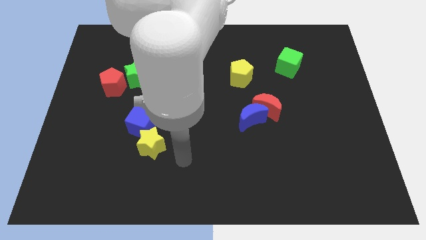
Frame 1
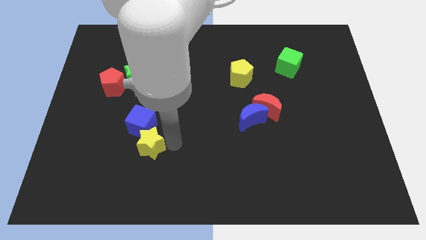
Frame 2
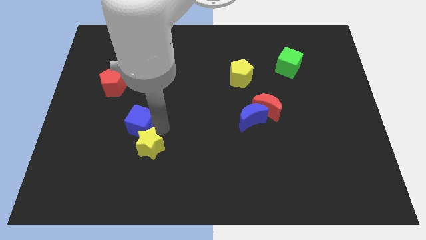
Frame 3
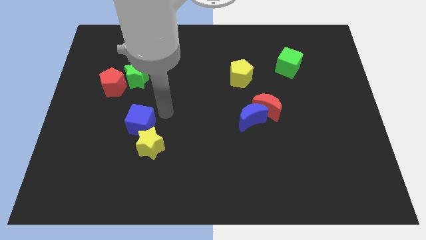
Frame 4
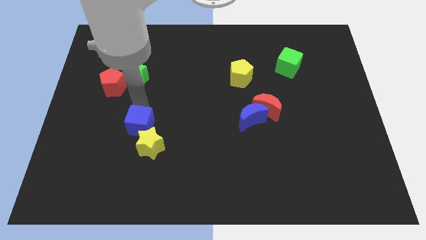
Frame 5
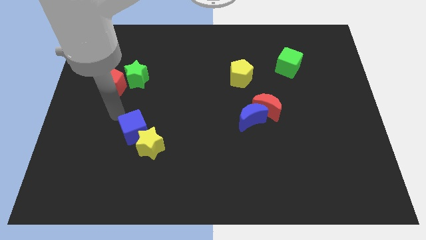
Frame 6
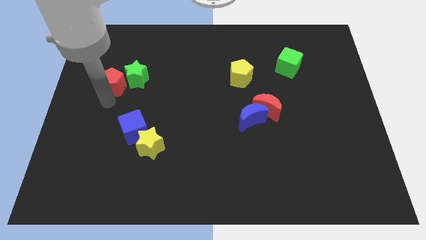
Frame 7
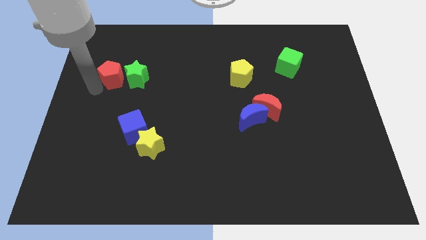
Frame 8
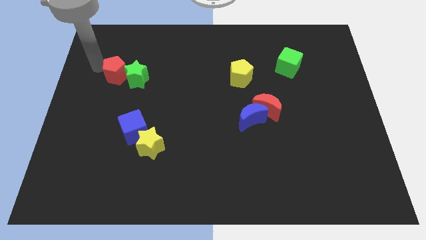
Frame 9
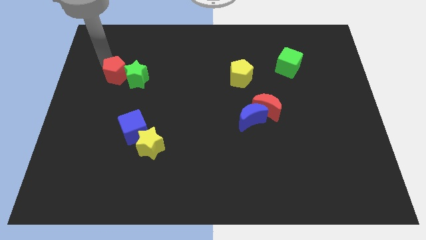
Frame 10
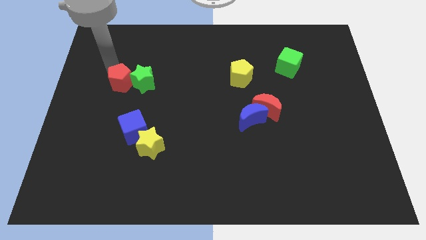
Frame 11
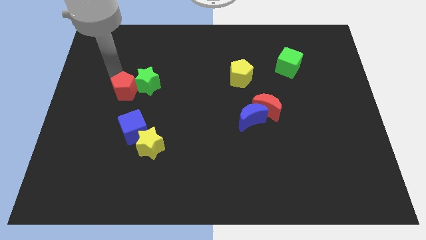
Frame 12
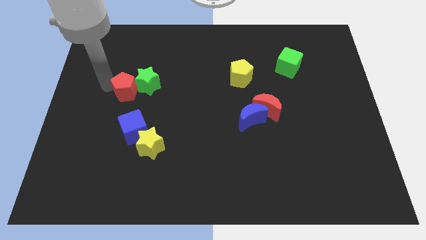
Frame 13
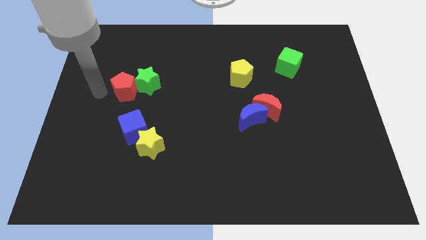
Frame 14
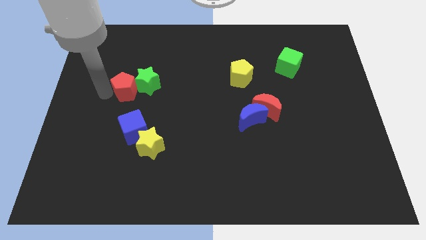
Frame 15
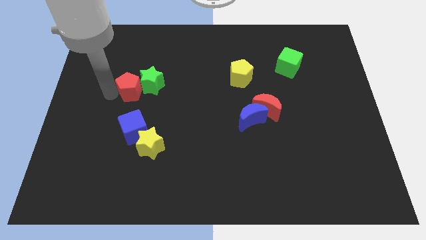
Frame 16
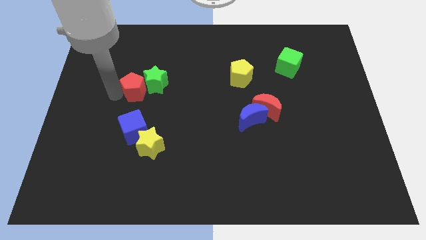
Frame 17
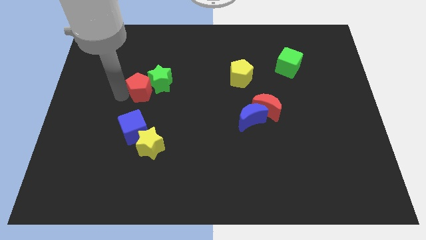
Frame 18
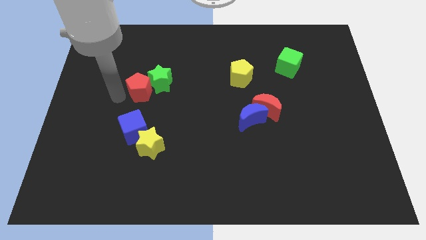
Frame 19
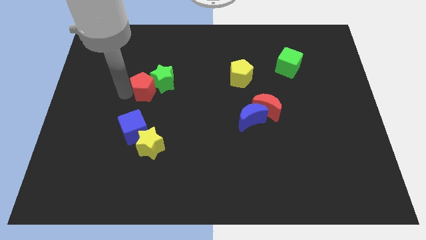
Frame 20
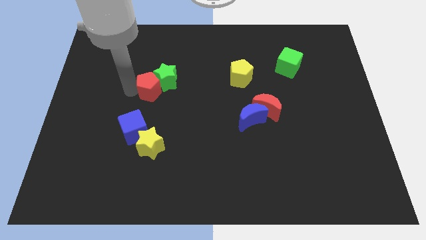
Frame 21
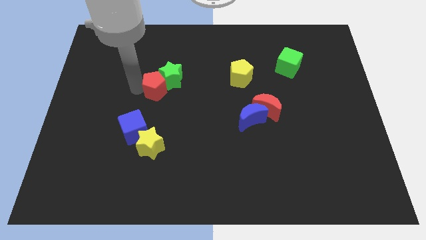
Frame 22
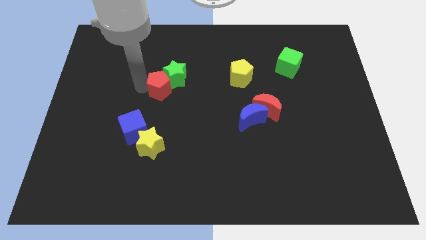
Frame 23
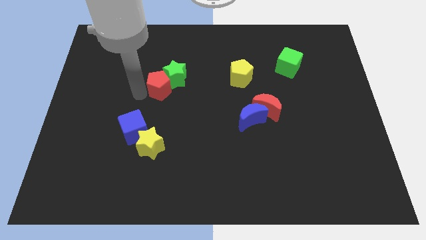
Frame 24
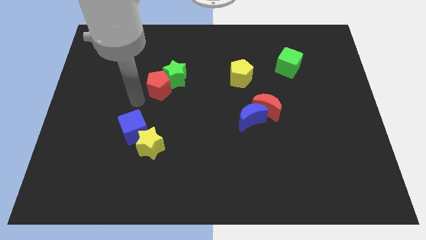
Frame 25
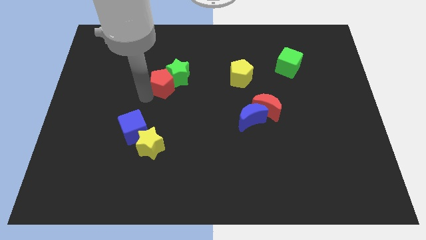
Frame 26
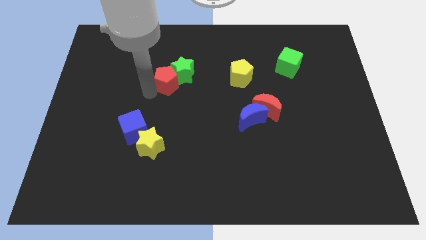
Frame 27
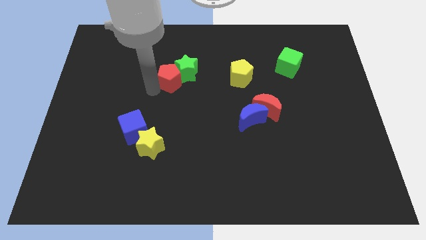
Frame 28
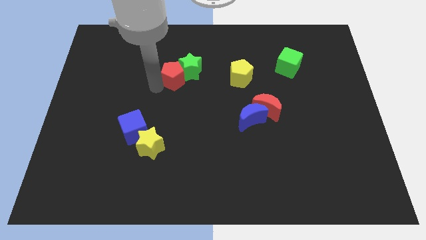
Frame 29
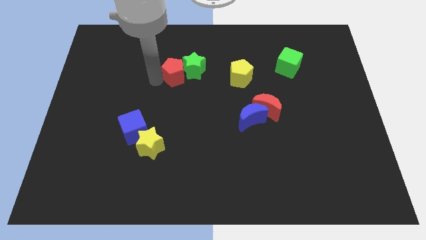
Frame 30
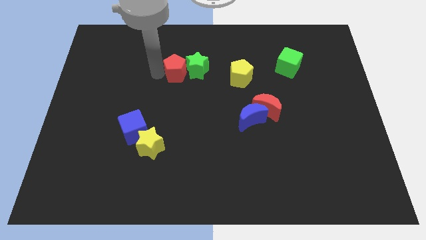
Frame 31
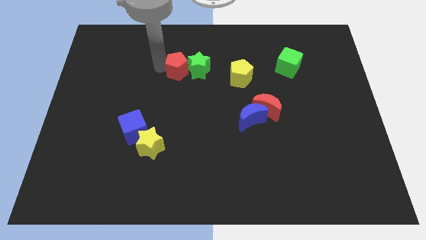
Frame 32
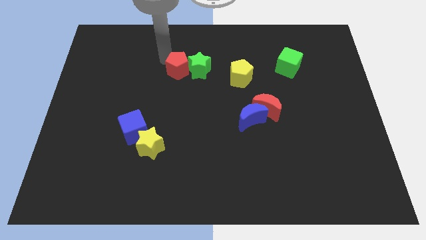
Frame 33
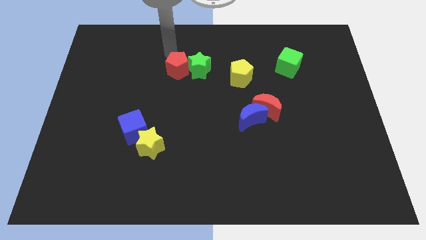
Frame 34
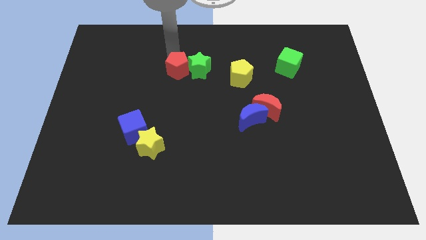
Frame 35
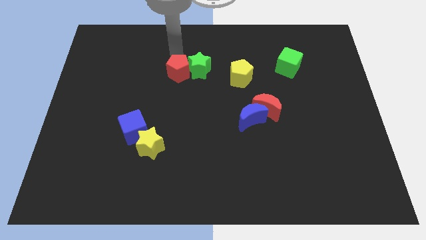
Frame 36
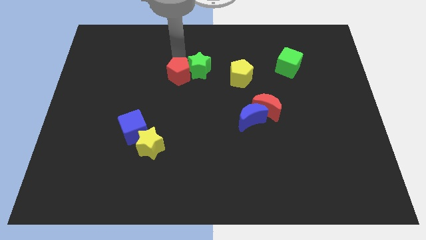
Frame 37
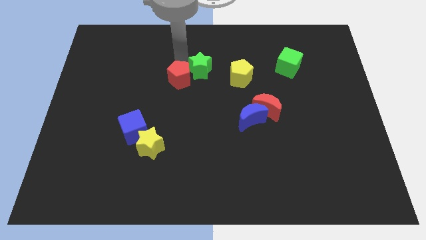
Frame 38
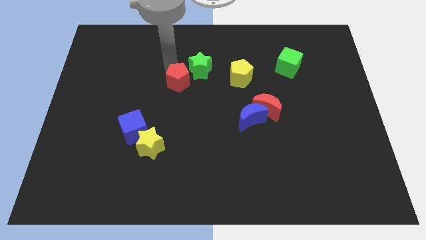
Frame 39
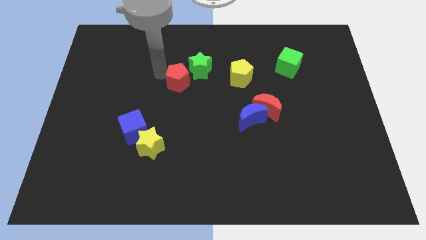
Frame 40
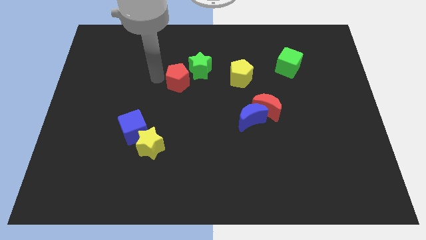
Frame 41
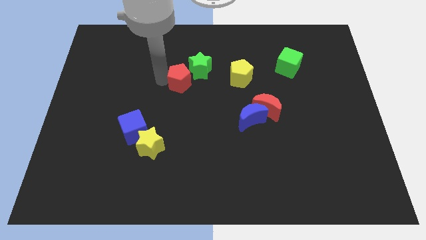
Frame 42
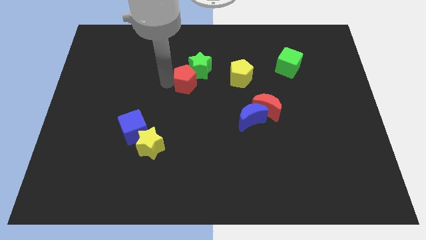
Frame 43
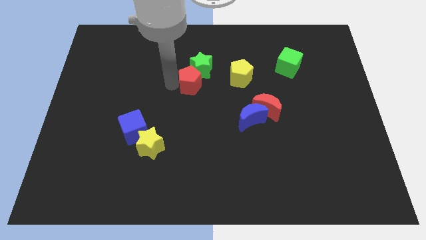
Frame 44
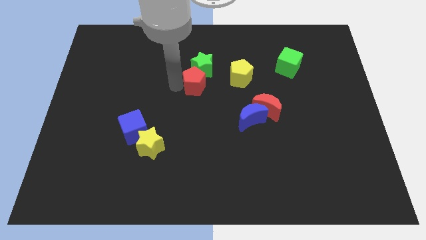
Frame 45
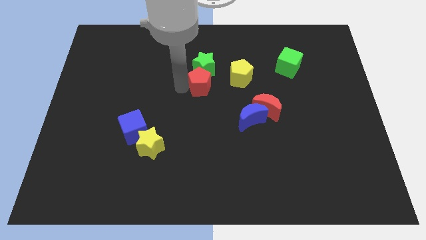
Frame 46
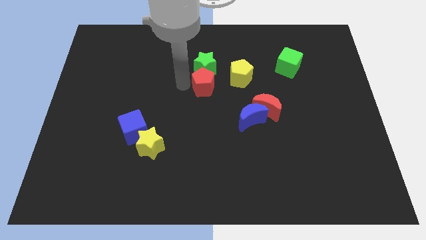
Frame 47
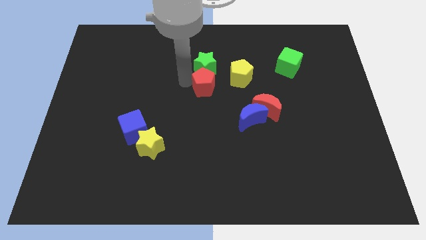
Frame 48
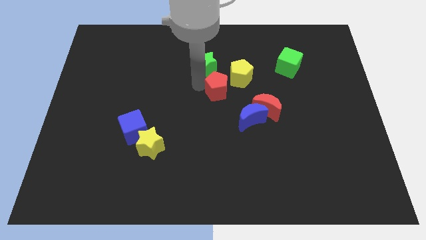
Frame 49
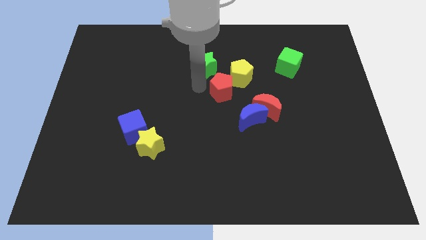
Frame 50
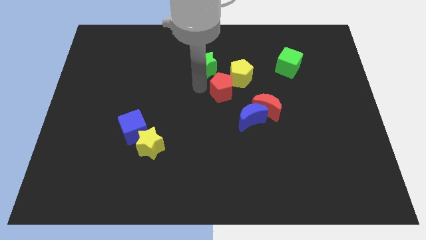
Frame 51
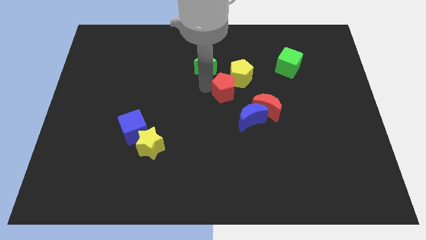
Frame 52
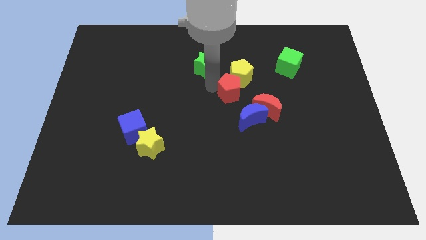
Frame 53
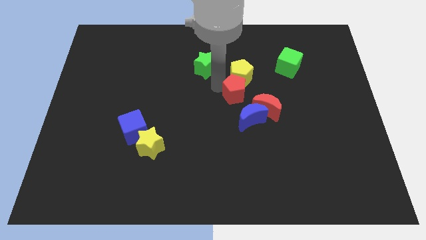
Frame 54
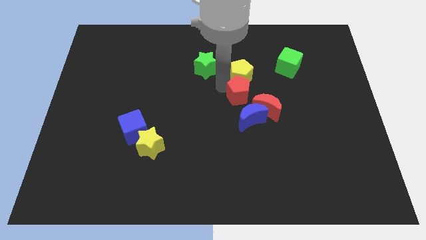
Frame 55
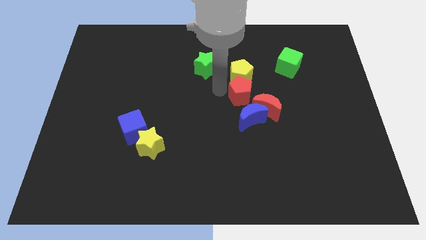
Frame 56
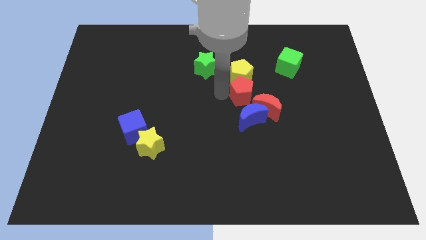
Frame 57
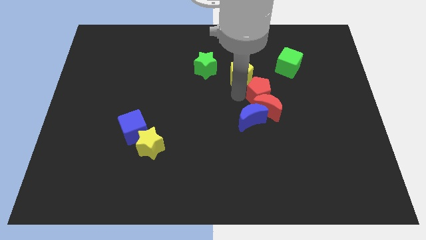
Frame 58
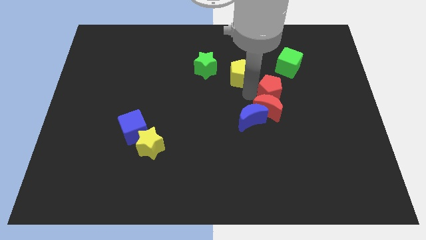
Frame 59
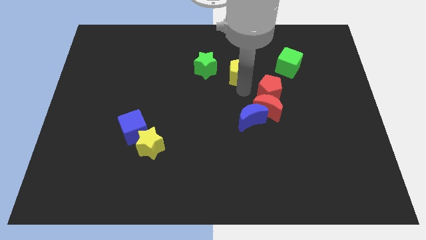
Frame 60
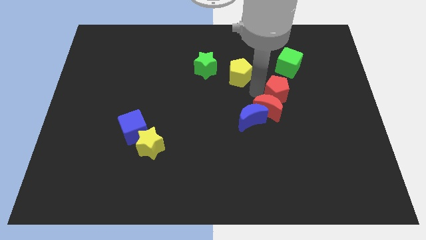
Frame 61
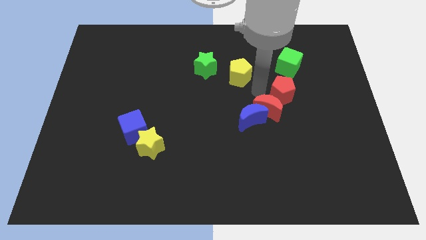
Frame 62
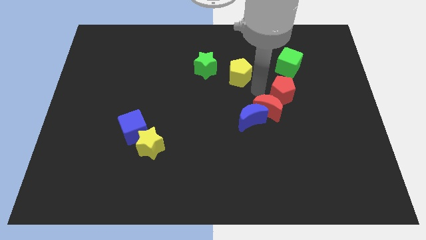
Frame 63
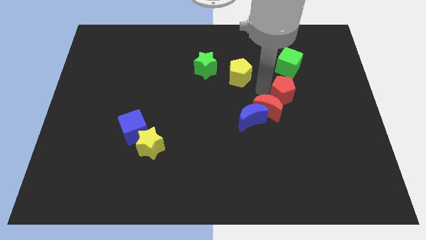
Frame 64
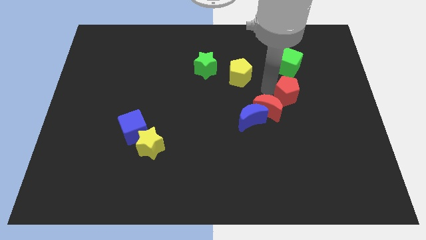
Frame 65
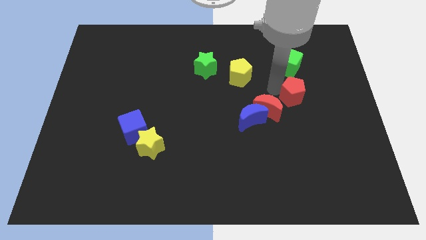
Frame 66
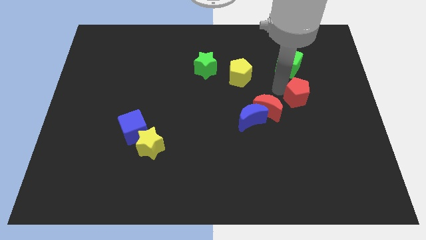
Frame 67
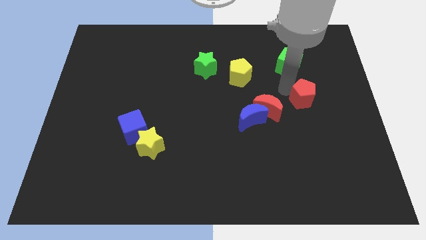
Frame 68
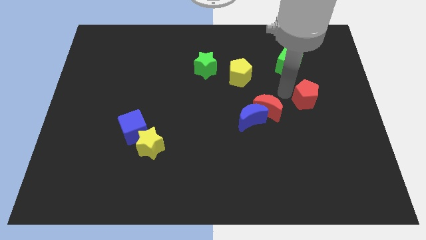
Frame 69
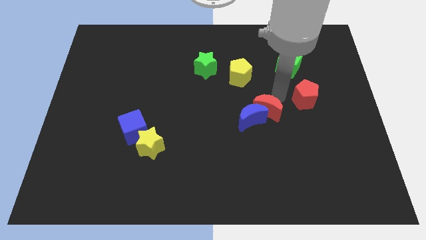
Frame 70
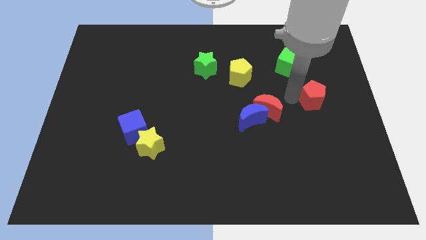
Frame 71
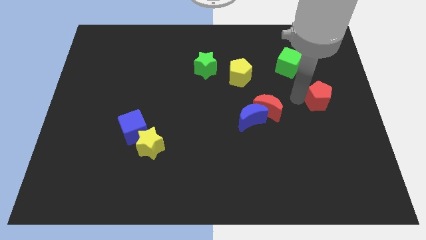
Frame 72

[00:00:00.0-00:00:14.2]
move the red pentagon to the right side of the board
